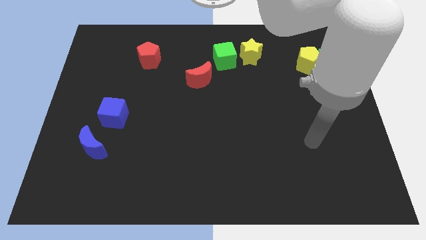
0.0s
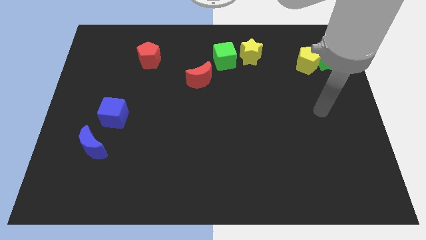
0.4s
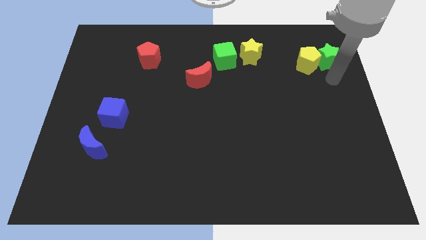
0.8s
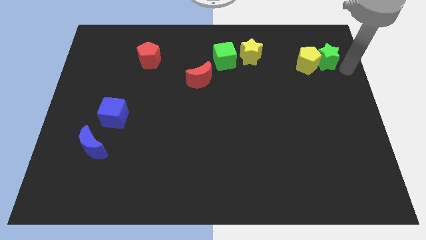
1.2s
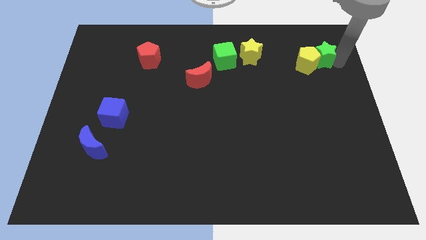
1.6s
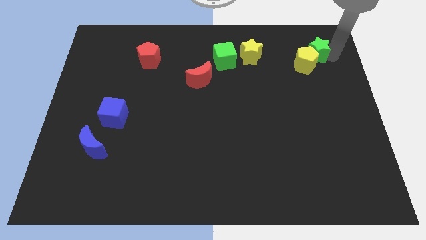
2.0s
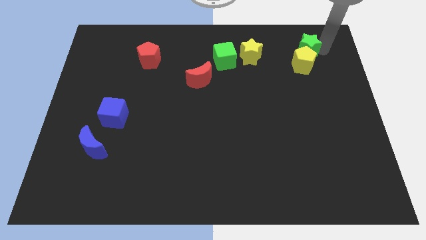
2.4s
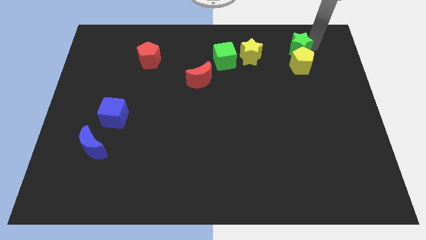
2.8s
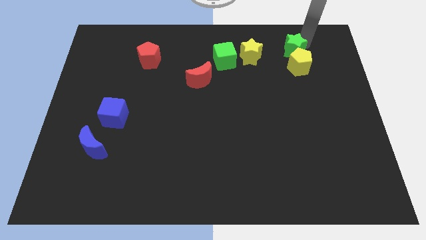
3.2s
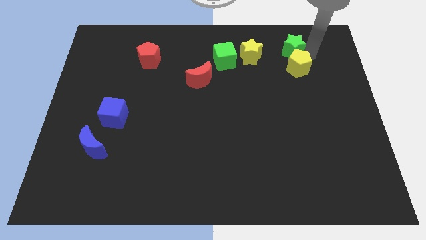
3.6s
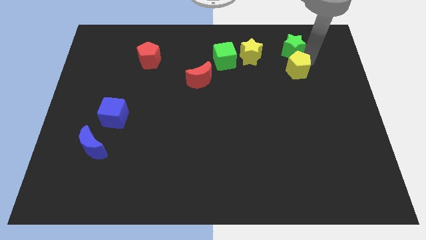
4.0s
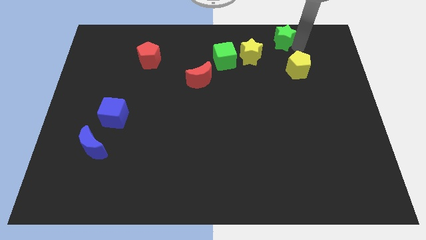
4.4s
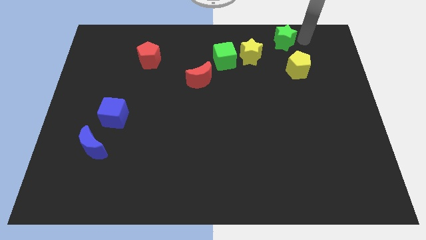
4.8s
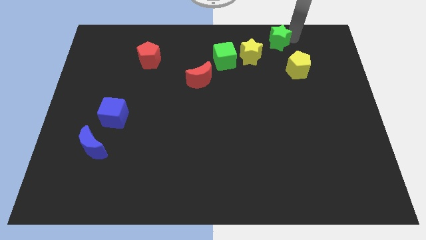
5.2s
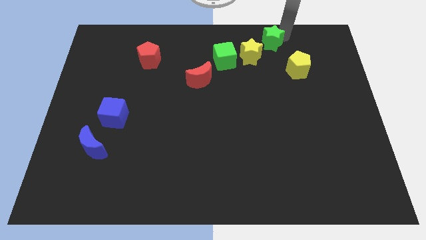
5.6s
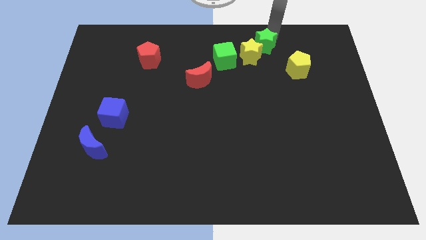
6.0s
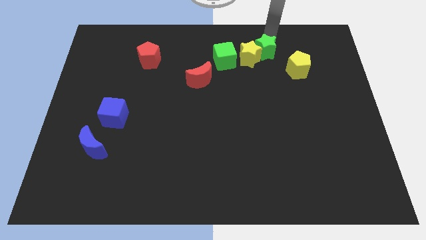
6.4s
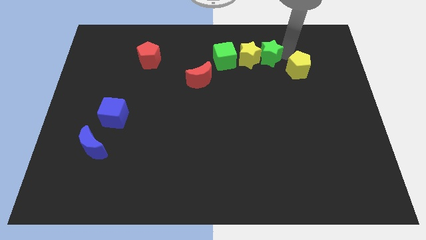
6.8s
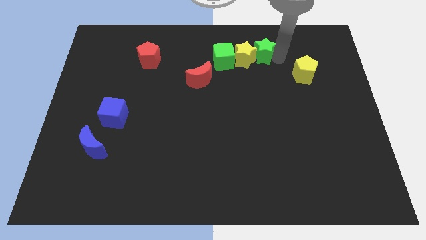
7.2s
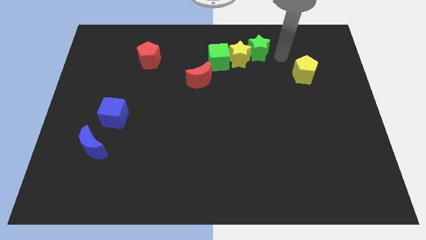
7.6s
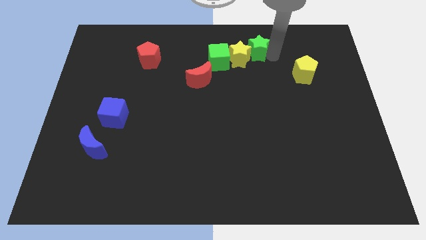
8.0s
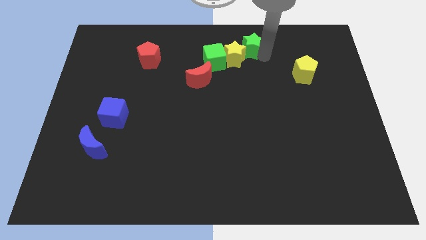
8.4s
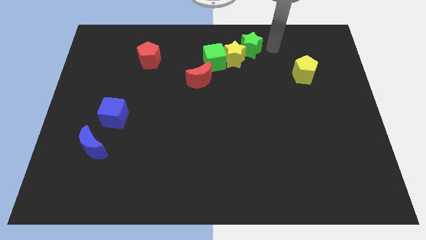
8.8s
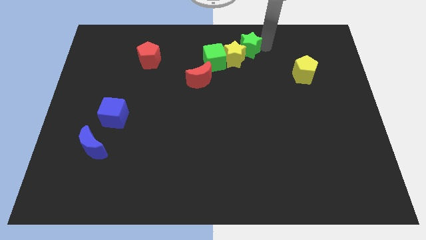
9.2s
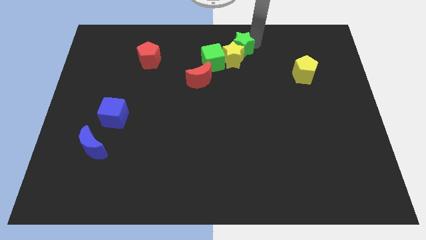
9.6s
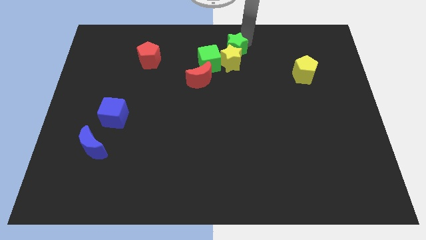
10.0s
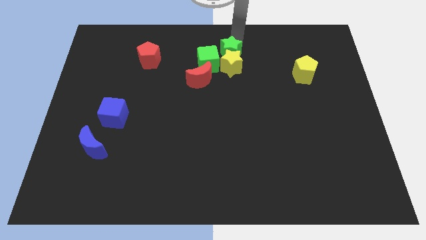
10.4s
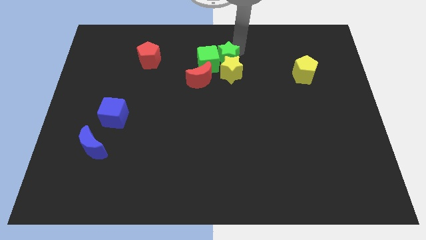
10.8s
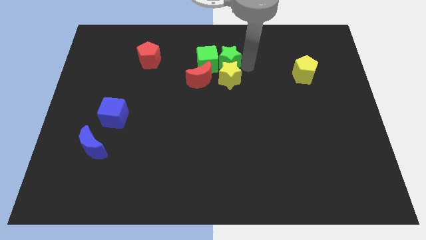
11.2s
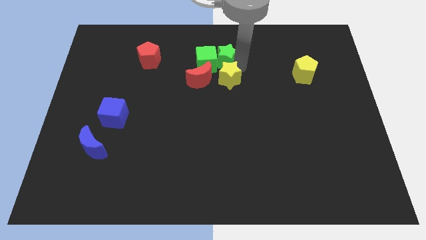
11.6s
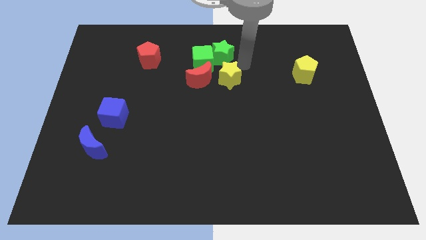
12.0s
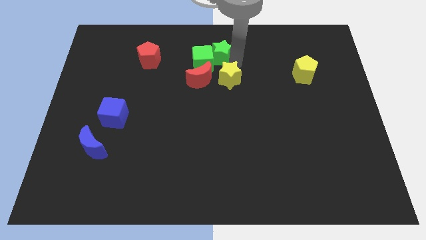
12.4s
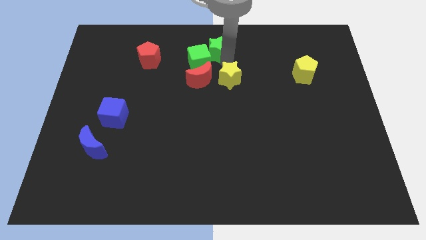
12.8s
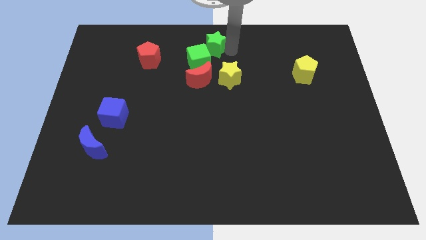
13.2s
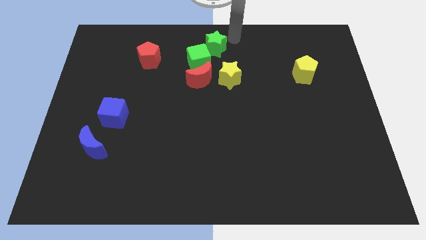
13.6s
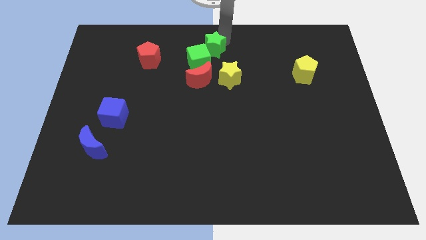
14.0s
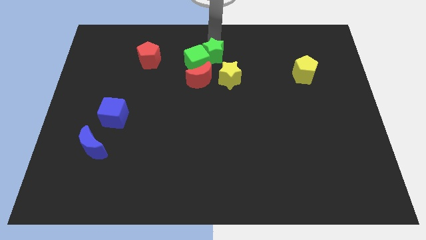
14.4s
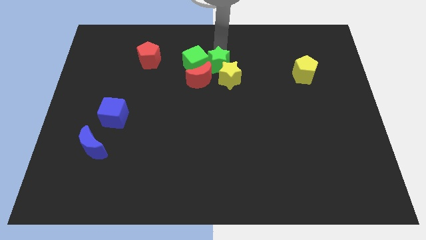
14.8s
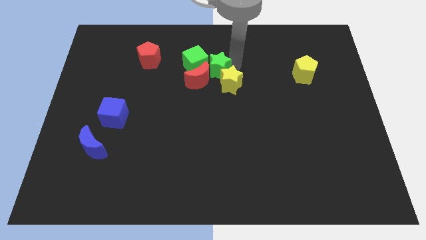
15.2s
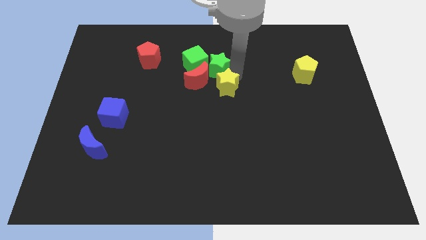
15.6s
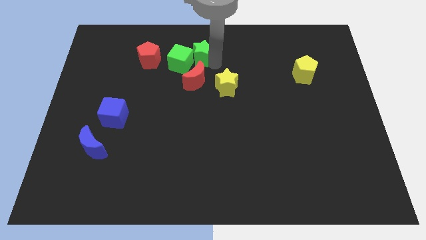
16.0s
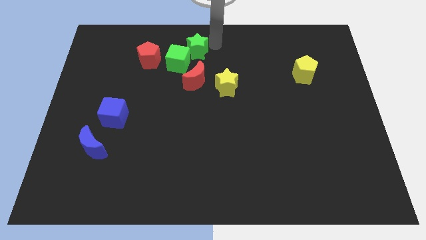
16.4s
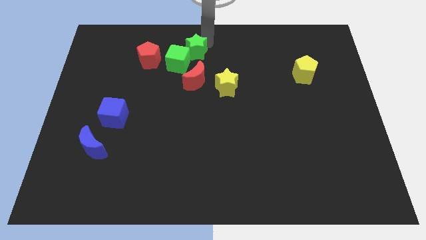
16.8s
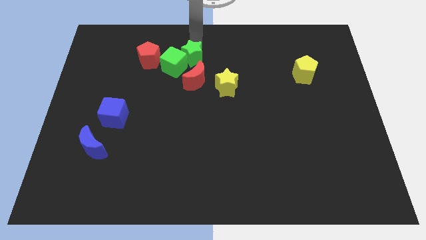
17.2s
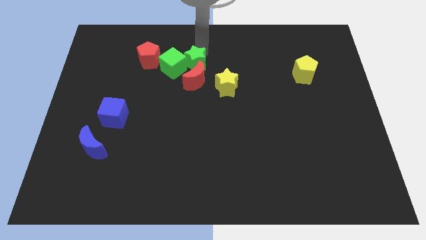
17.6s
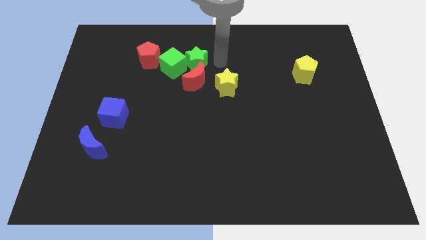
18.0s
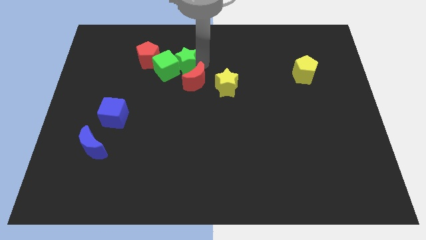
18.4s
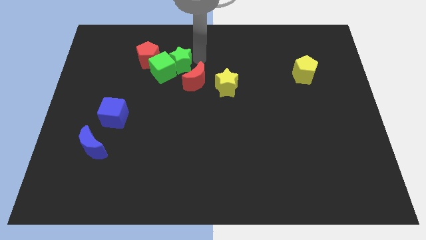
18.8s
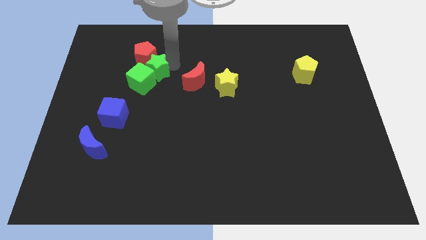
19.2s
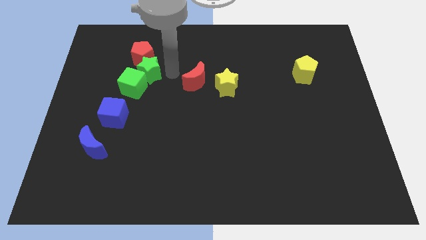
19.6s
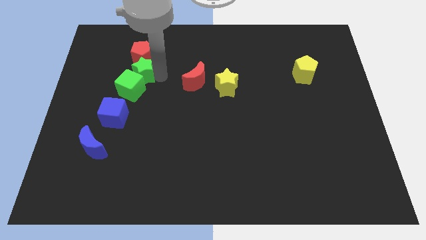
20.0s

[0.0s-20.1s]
slide the green star to the bottom left side of the red pentagon
